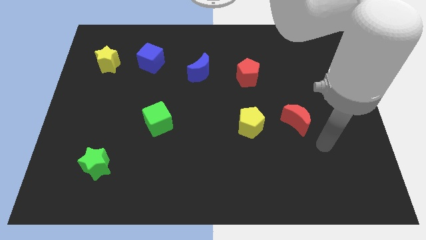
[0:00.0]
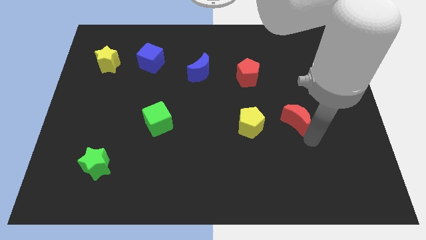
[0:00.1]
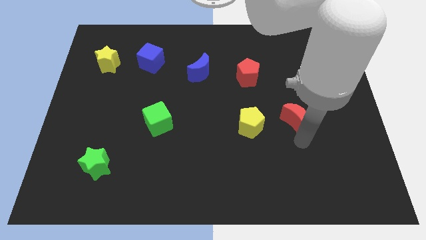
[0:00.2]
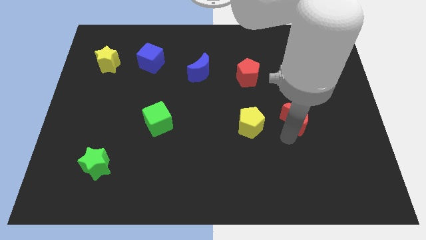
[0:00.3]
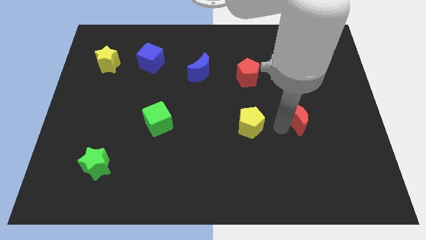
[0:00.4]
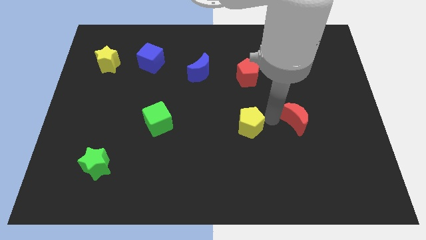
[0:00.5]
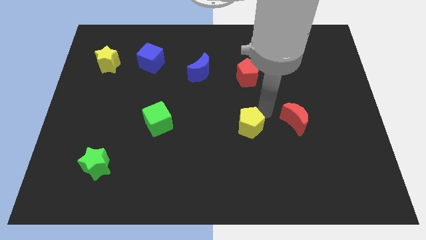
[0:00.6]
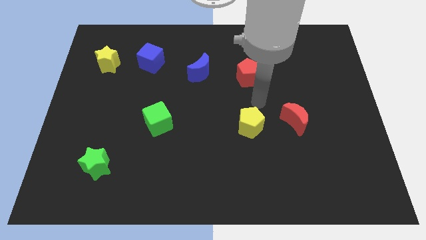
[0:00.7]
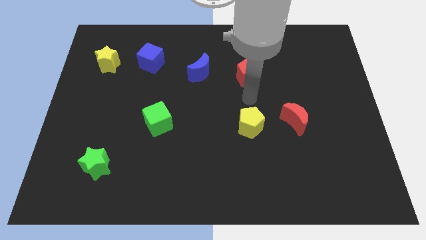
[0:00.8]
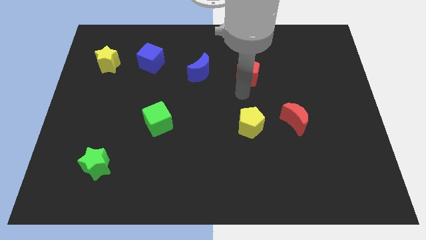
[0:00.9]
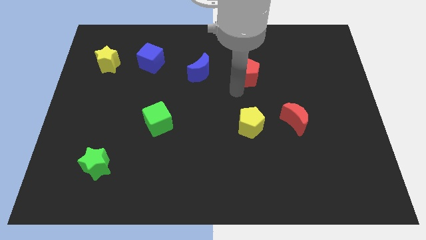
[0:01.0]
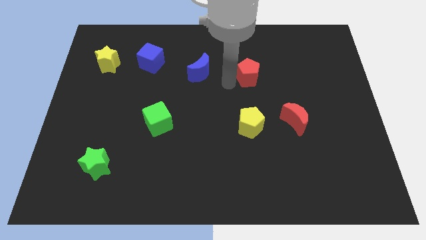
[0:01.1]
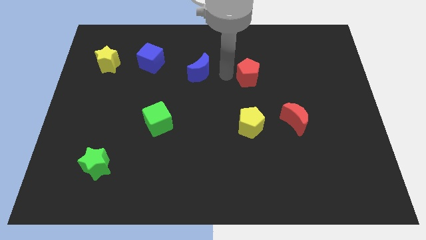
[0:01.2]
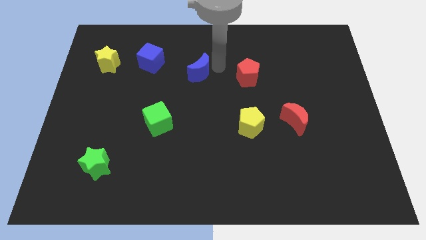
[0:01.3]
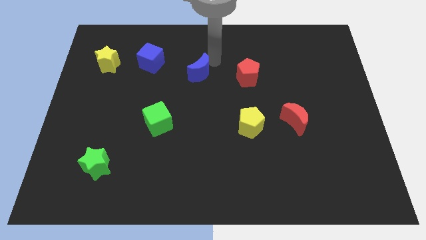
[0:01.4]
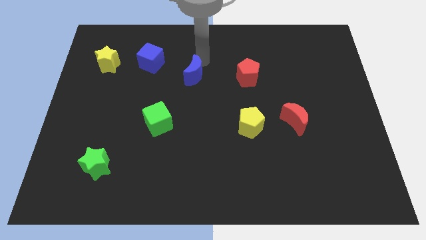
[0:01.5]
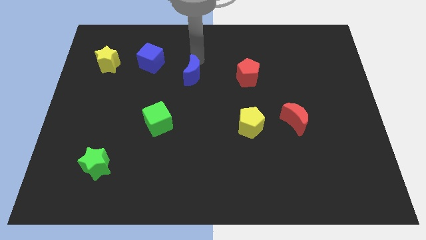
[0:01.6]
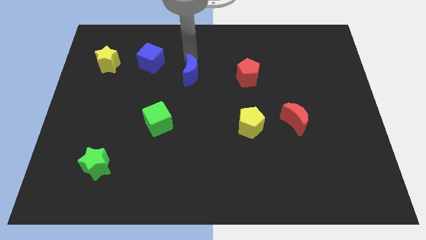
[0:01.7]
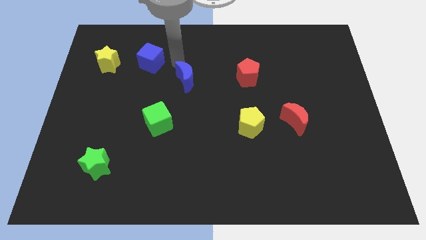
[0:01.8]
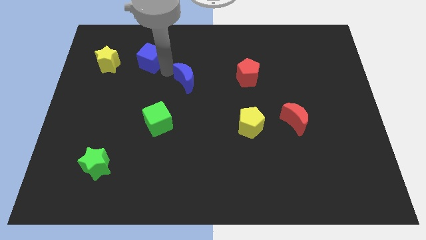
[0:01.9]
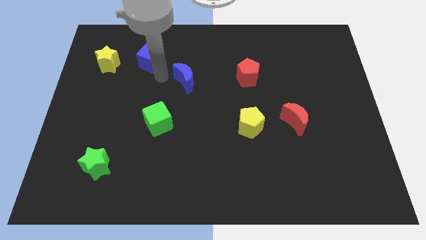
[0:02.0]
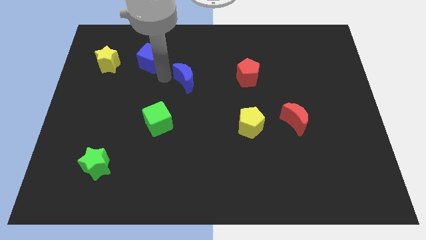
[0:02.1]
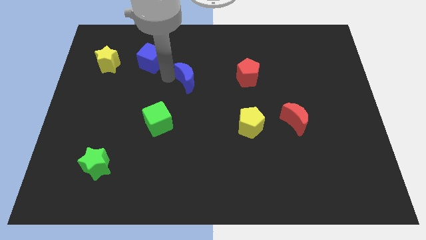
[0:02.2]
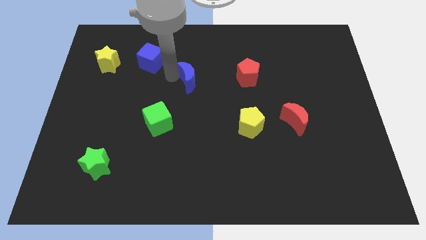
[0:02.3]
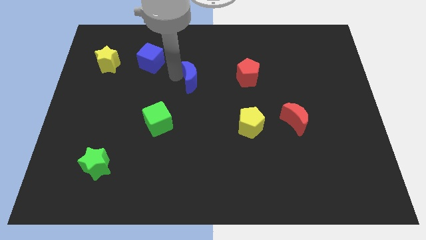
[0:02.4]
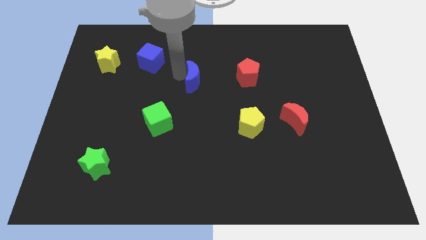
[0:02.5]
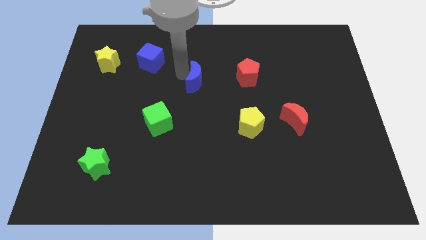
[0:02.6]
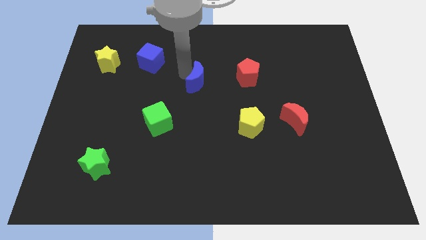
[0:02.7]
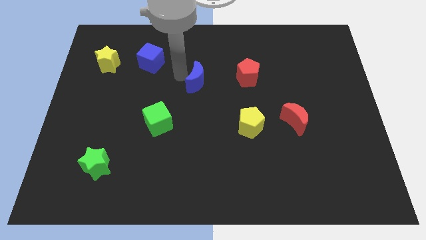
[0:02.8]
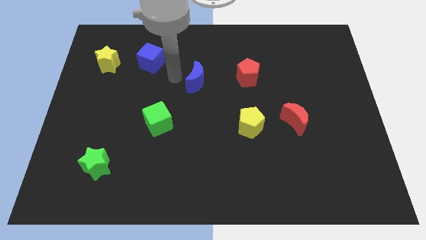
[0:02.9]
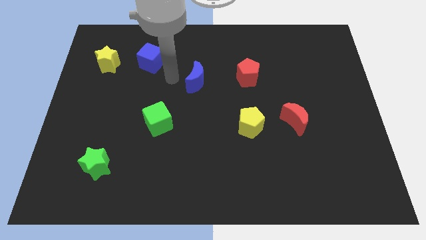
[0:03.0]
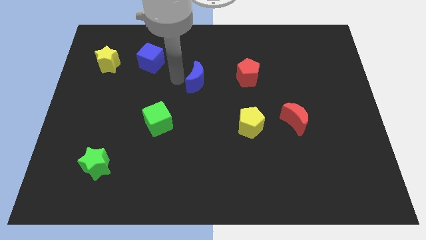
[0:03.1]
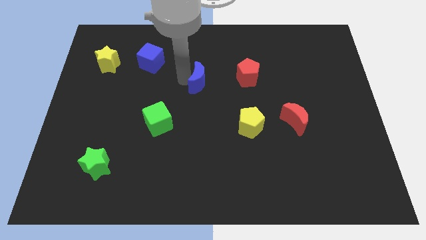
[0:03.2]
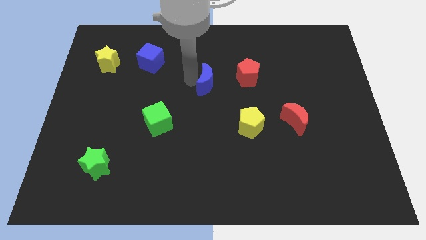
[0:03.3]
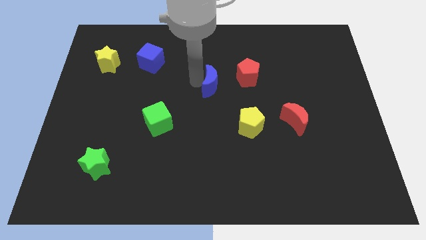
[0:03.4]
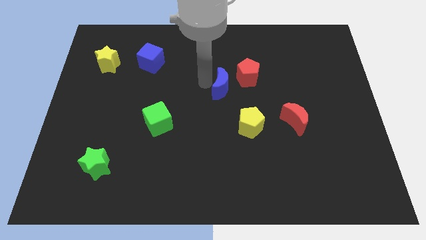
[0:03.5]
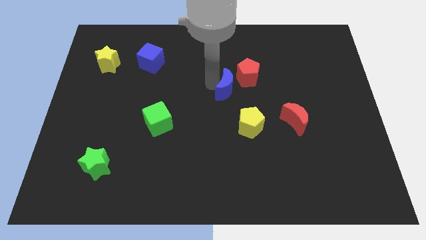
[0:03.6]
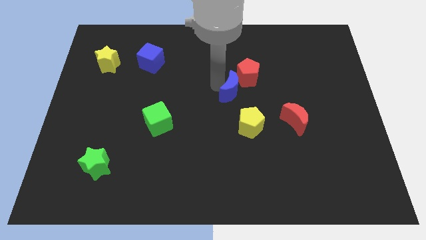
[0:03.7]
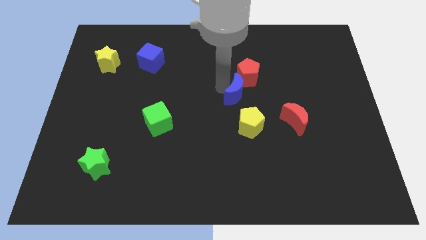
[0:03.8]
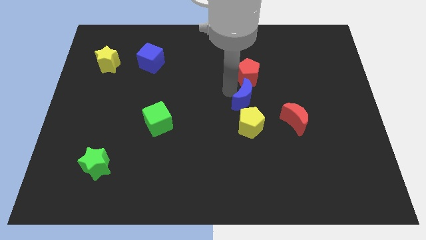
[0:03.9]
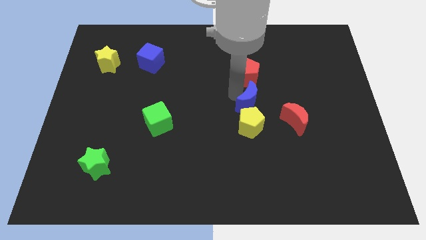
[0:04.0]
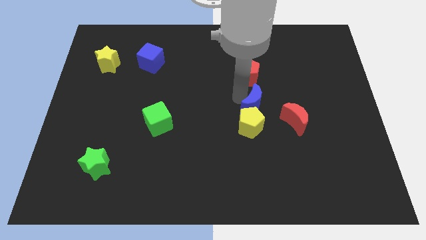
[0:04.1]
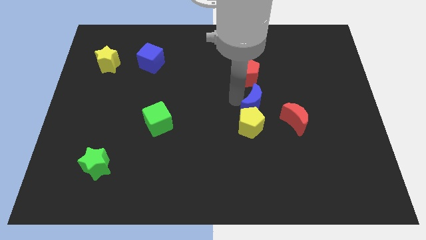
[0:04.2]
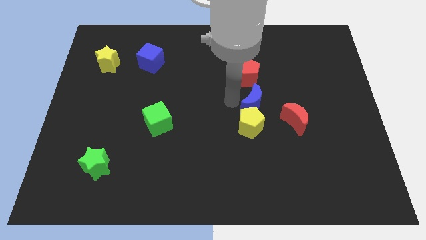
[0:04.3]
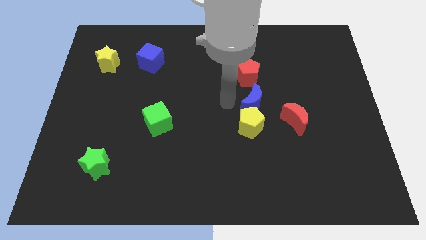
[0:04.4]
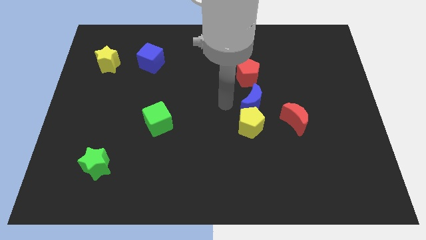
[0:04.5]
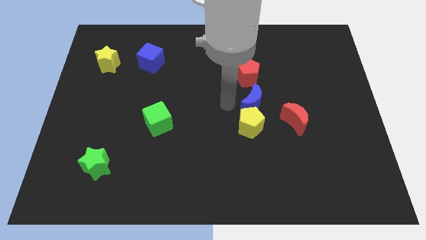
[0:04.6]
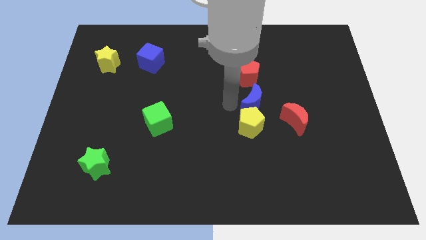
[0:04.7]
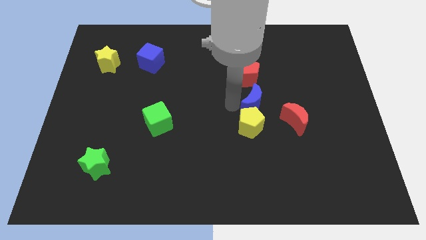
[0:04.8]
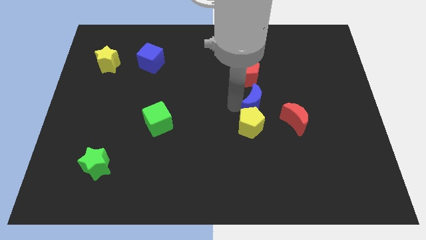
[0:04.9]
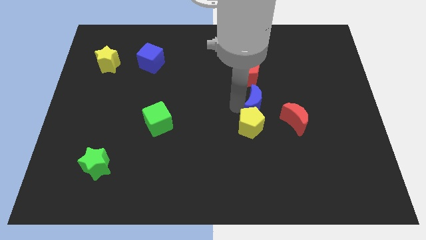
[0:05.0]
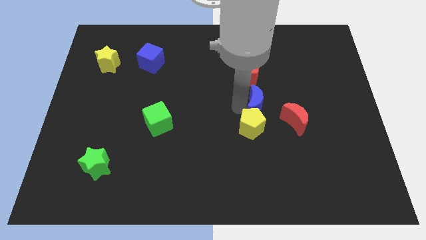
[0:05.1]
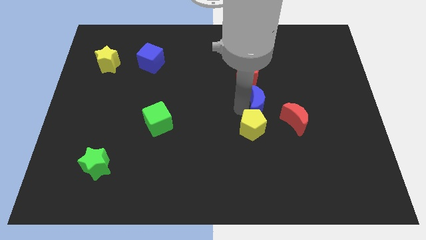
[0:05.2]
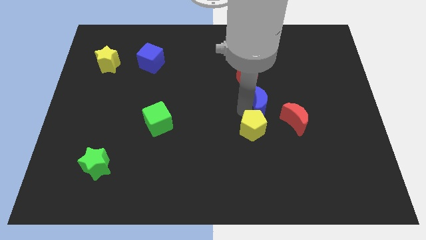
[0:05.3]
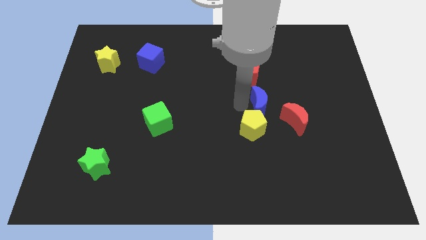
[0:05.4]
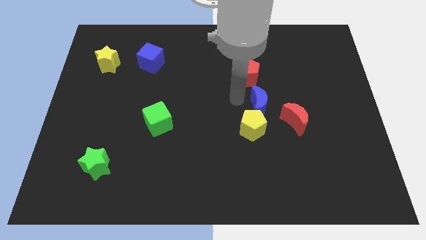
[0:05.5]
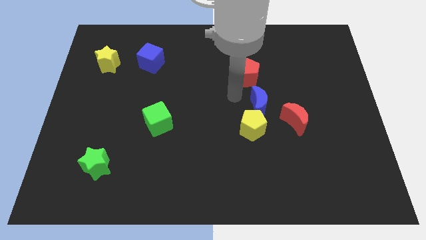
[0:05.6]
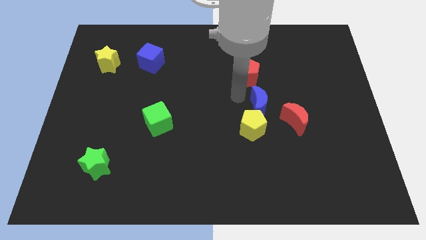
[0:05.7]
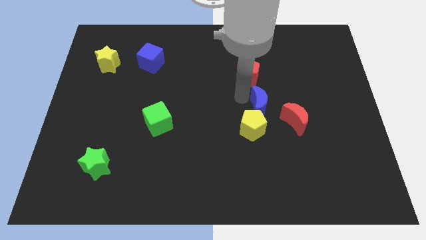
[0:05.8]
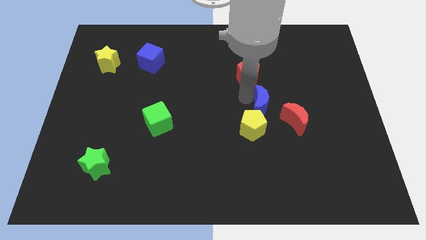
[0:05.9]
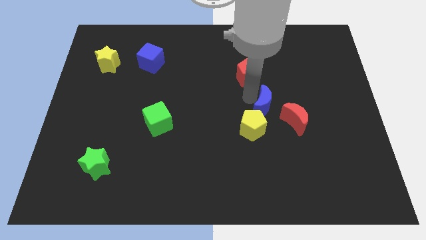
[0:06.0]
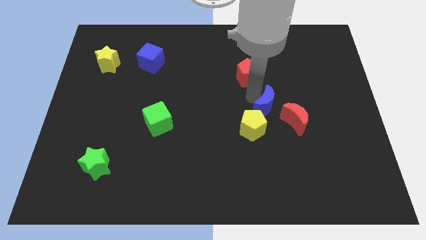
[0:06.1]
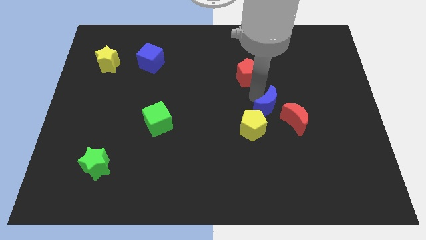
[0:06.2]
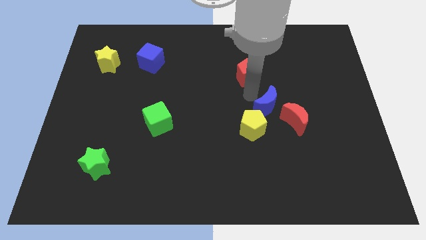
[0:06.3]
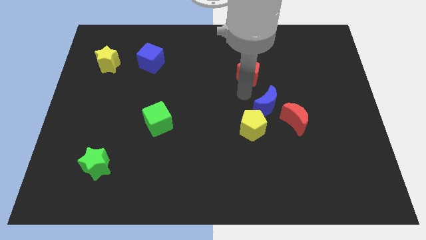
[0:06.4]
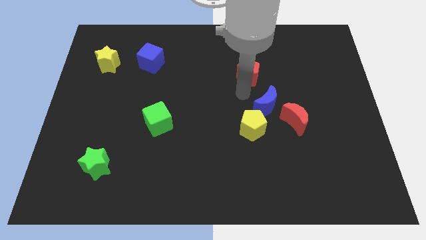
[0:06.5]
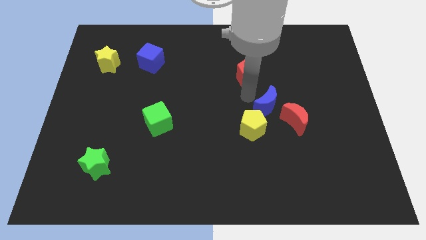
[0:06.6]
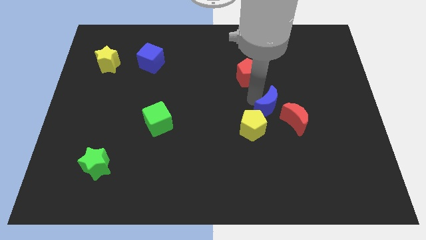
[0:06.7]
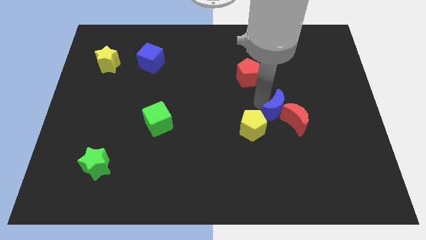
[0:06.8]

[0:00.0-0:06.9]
put the blue moon towards the red moon

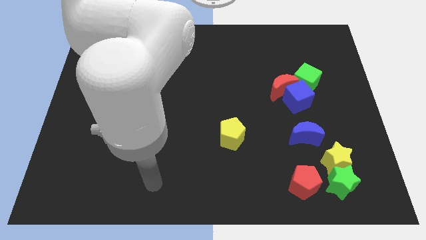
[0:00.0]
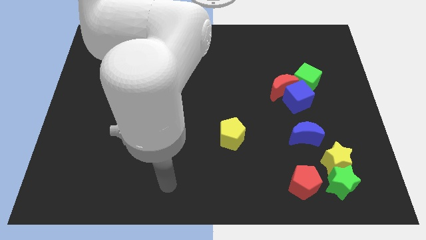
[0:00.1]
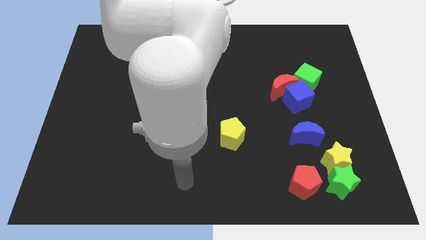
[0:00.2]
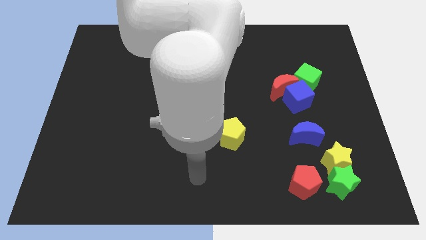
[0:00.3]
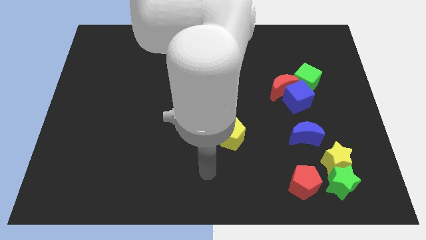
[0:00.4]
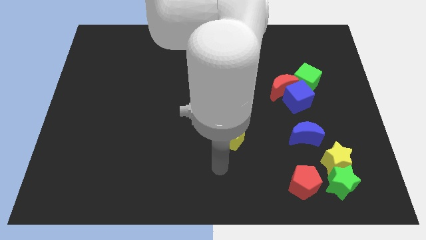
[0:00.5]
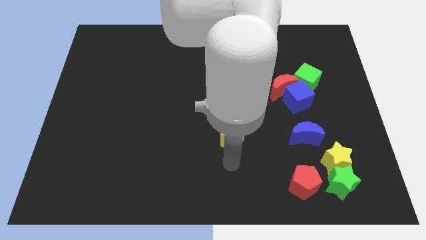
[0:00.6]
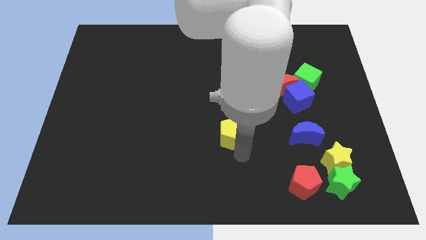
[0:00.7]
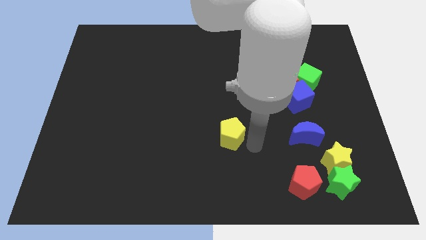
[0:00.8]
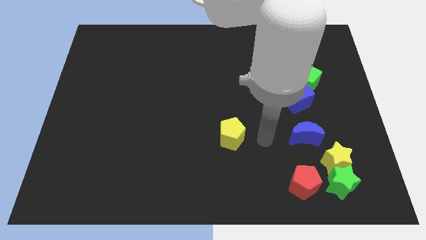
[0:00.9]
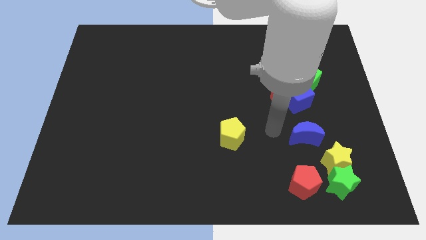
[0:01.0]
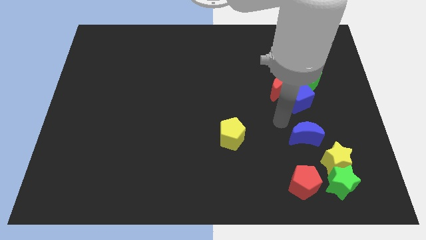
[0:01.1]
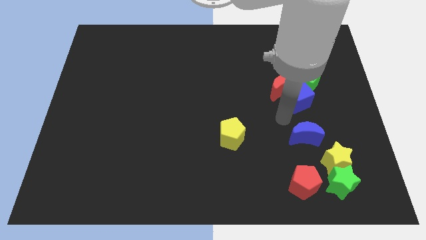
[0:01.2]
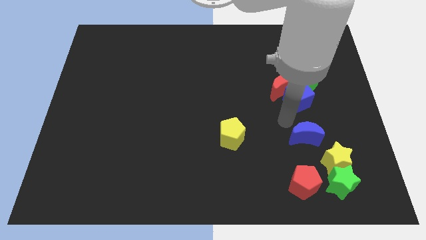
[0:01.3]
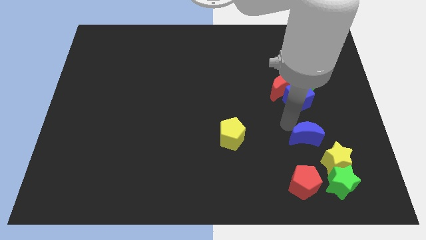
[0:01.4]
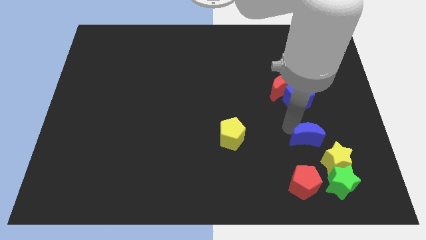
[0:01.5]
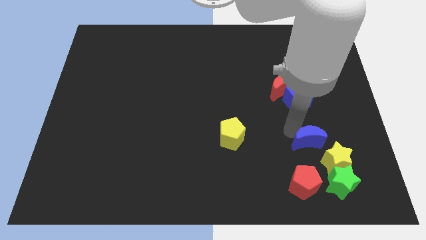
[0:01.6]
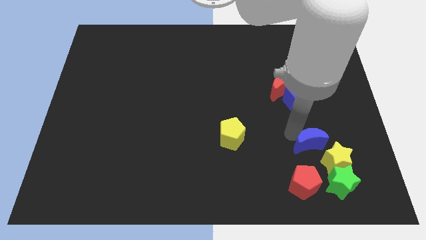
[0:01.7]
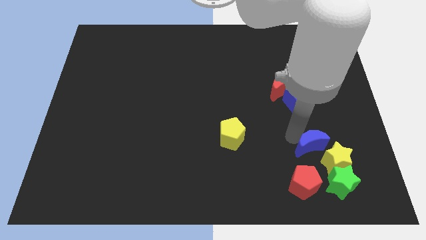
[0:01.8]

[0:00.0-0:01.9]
move the blue moon next to the yellow star
